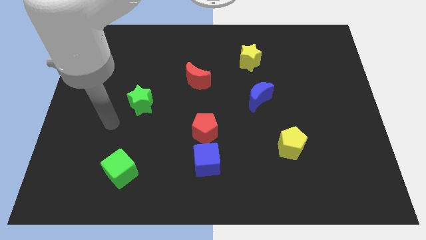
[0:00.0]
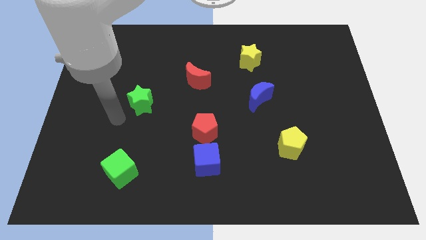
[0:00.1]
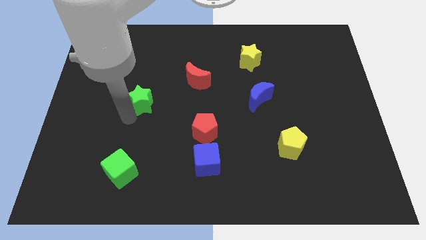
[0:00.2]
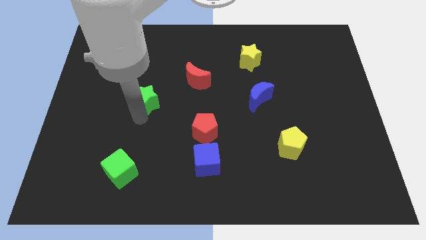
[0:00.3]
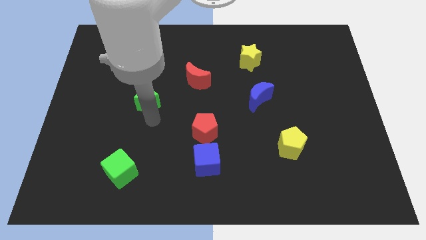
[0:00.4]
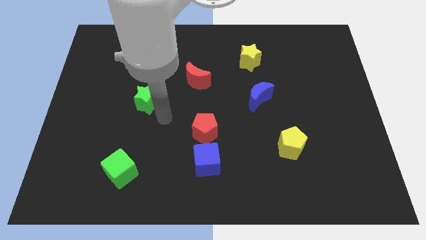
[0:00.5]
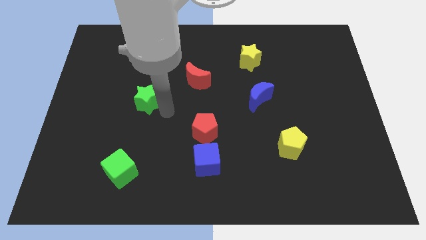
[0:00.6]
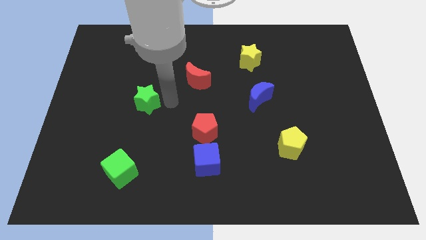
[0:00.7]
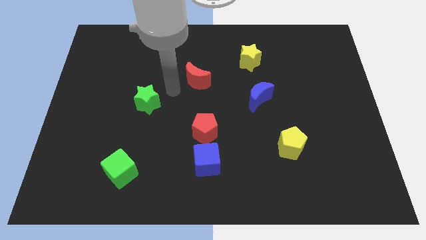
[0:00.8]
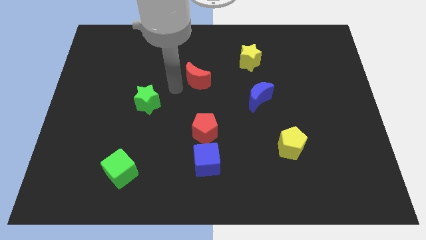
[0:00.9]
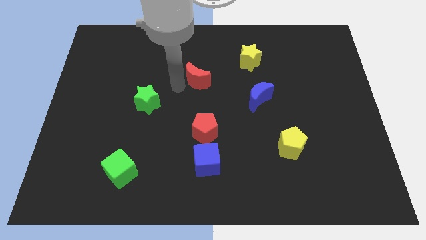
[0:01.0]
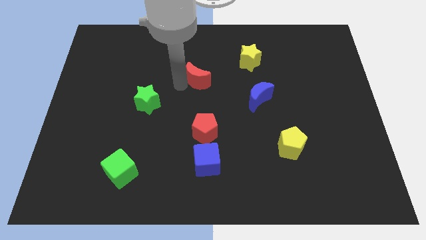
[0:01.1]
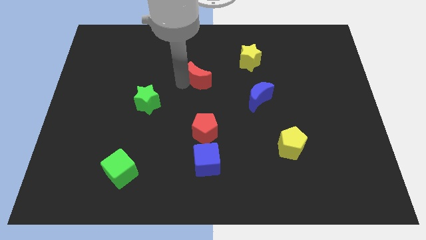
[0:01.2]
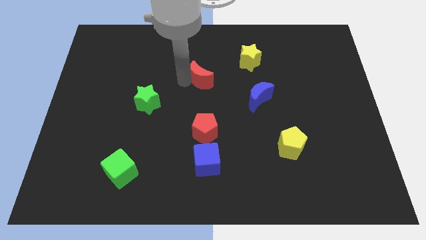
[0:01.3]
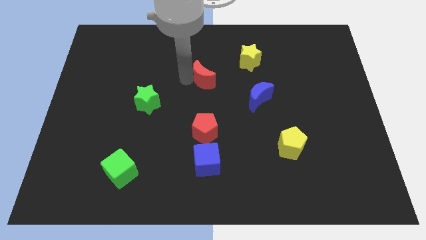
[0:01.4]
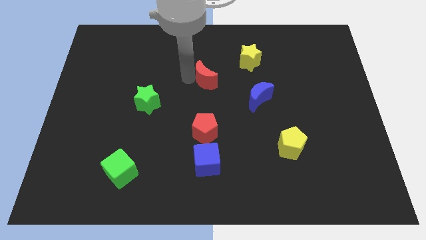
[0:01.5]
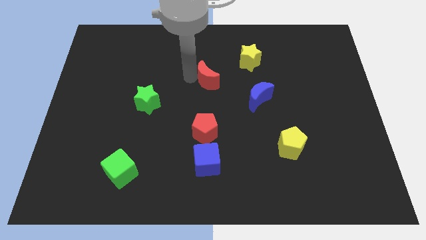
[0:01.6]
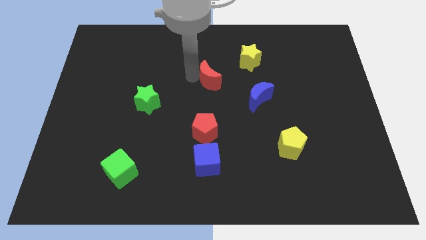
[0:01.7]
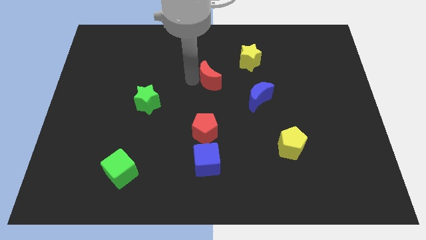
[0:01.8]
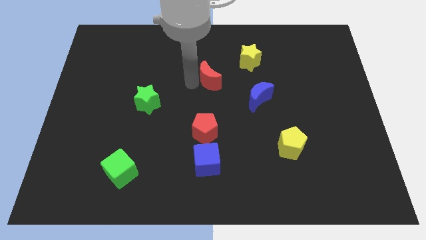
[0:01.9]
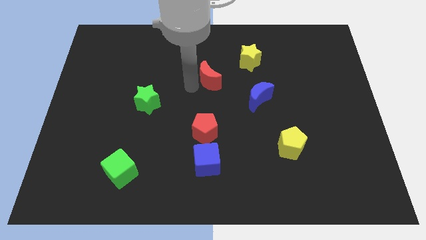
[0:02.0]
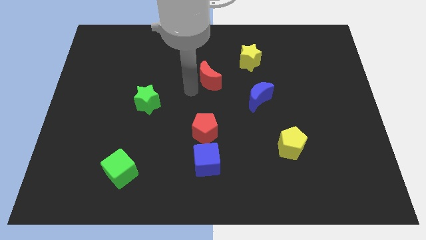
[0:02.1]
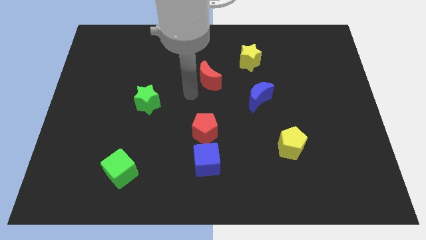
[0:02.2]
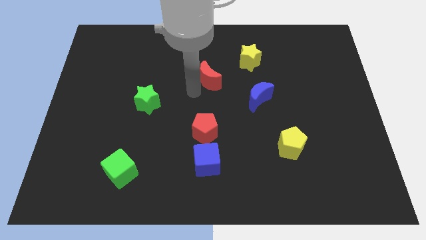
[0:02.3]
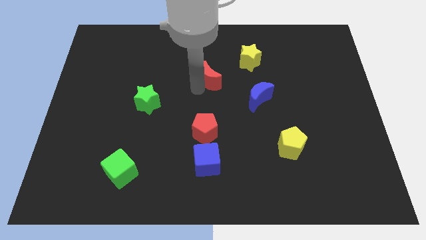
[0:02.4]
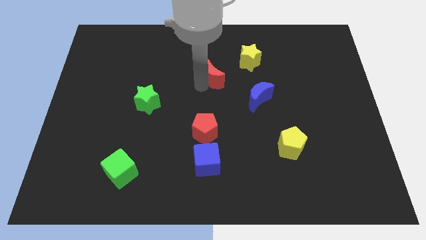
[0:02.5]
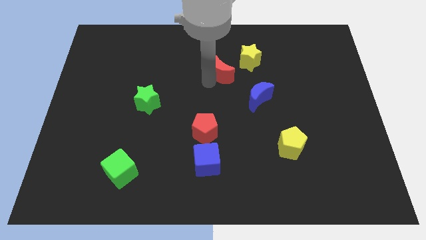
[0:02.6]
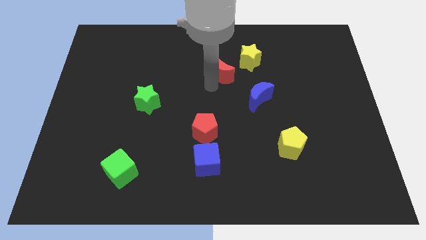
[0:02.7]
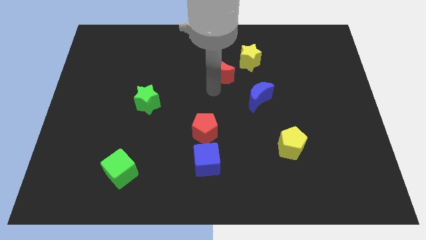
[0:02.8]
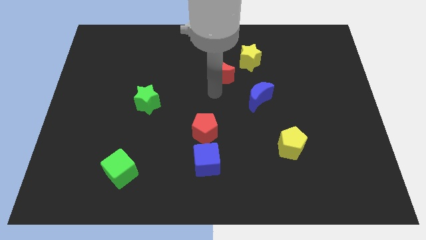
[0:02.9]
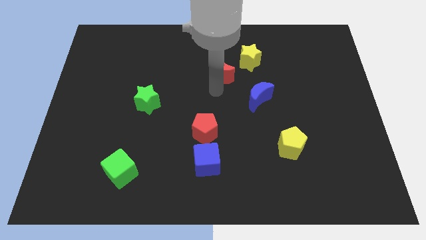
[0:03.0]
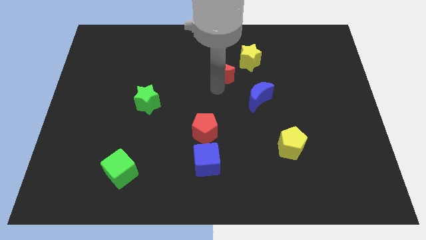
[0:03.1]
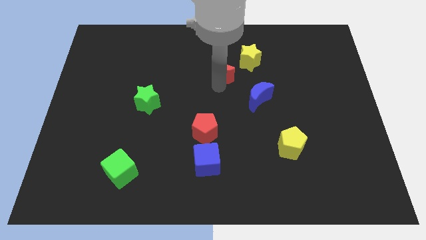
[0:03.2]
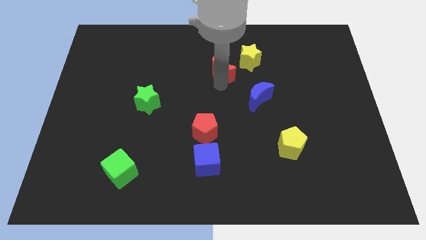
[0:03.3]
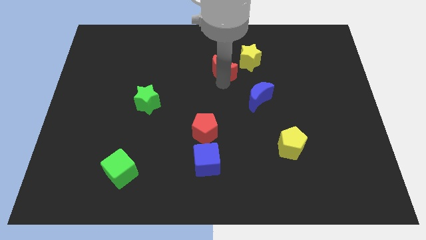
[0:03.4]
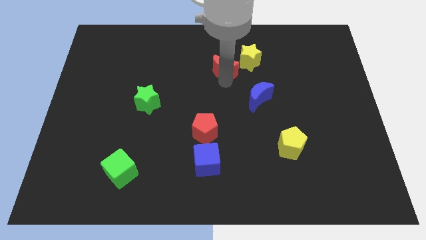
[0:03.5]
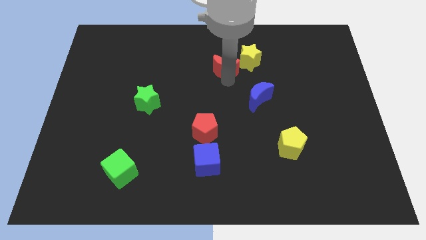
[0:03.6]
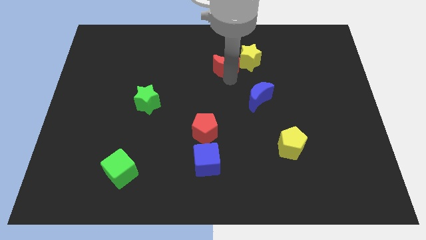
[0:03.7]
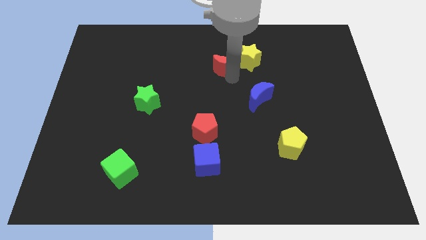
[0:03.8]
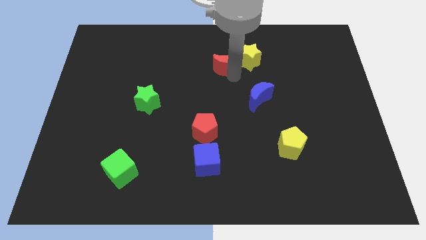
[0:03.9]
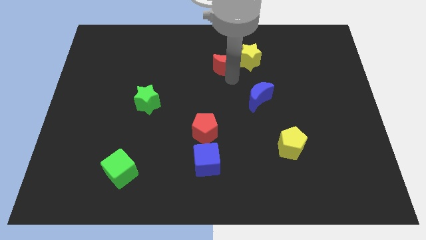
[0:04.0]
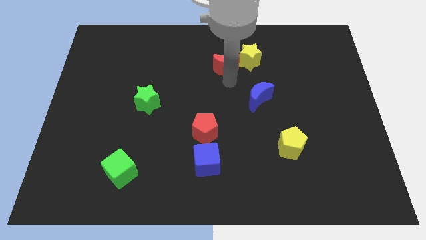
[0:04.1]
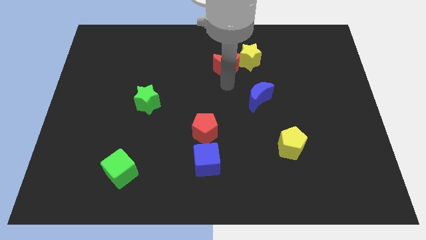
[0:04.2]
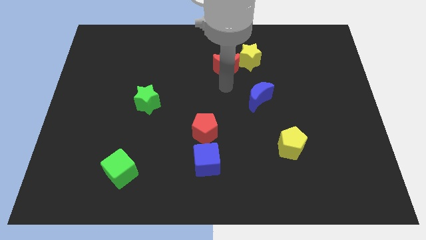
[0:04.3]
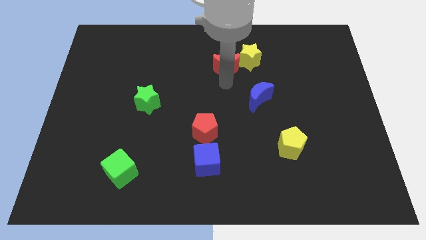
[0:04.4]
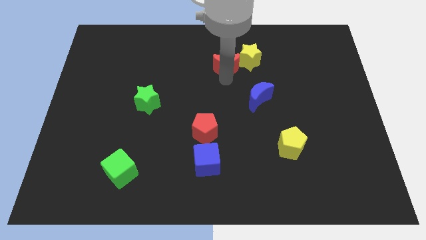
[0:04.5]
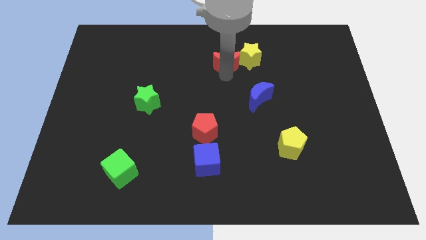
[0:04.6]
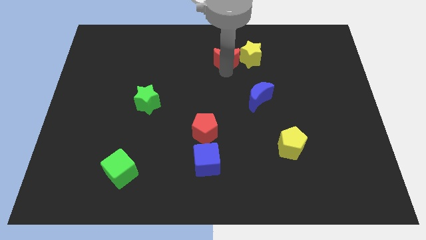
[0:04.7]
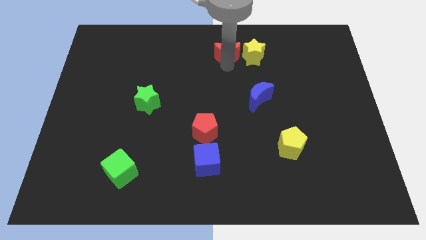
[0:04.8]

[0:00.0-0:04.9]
put the red moon to the top side

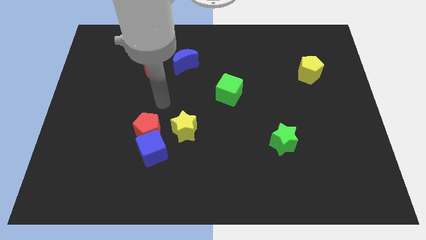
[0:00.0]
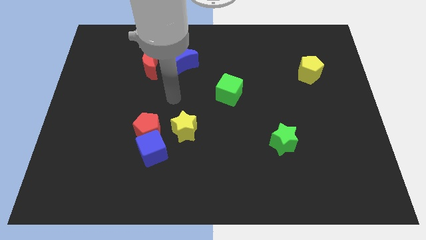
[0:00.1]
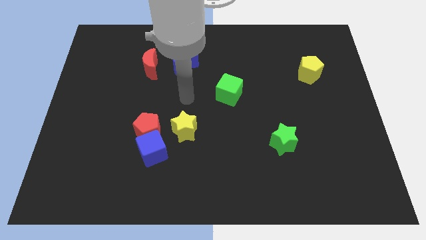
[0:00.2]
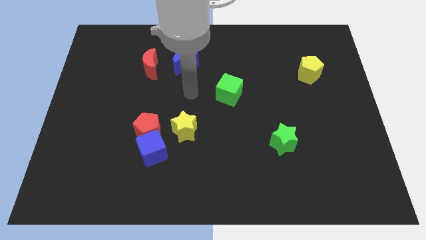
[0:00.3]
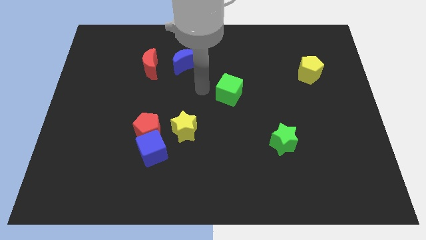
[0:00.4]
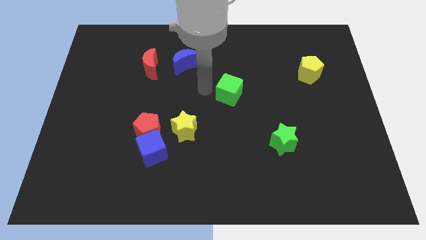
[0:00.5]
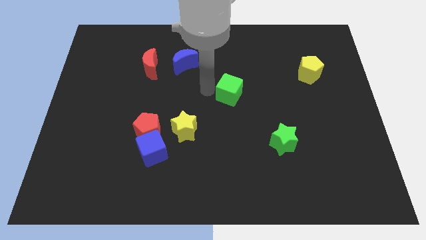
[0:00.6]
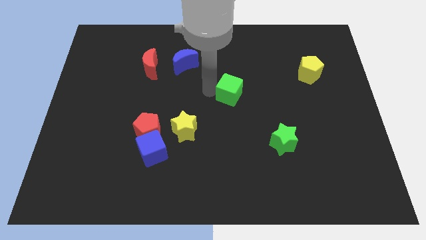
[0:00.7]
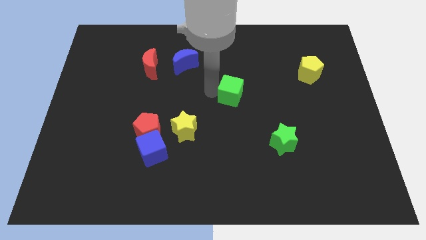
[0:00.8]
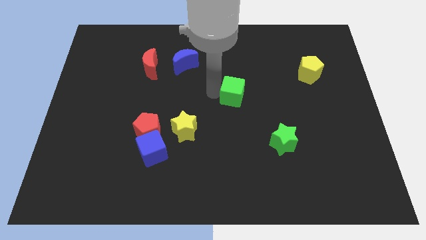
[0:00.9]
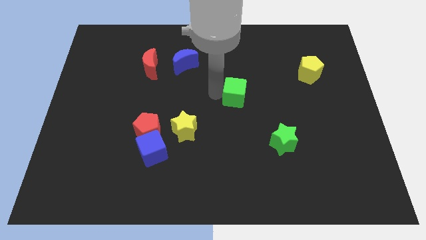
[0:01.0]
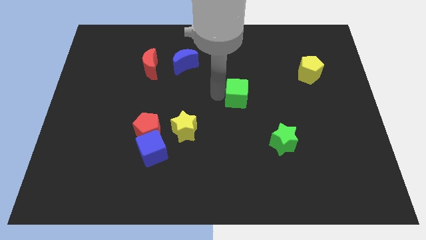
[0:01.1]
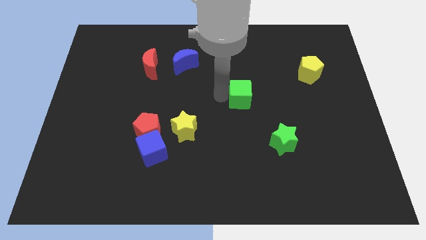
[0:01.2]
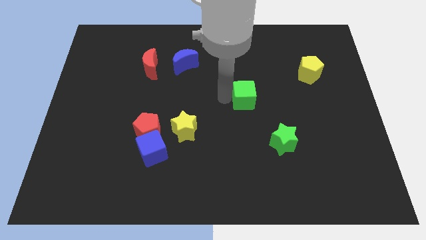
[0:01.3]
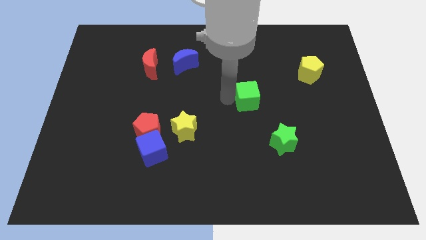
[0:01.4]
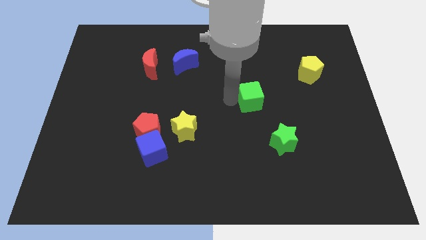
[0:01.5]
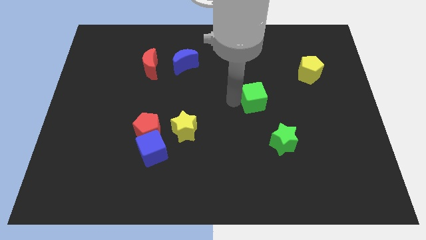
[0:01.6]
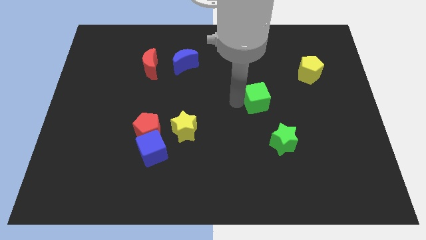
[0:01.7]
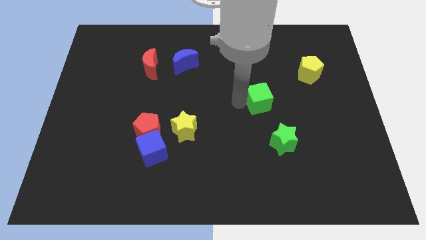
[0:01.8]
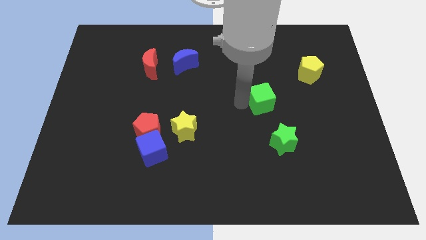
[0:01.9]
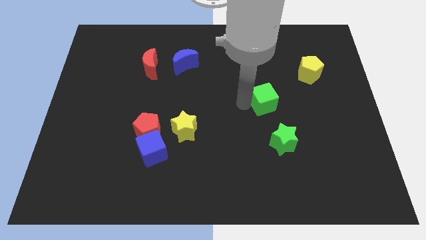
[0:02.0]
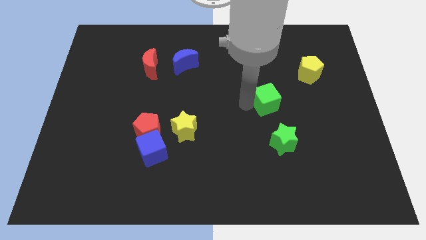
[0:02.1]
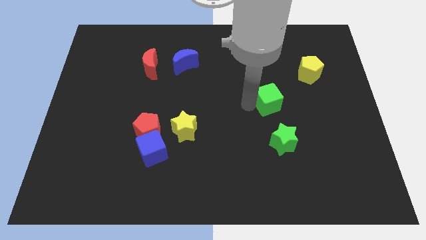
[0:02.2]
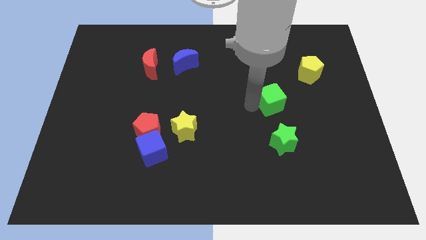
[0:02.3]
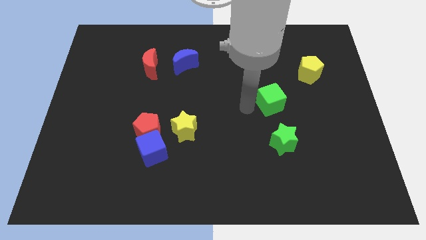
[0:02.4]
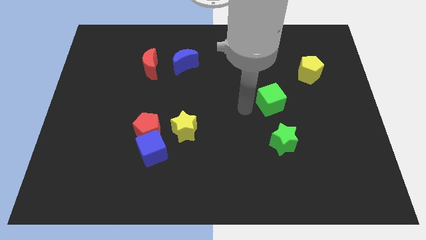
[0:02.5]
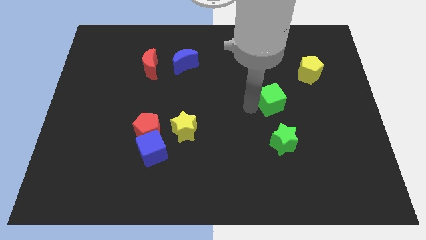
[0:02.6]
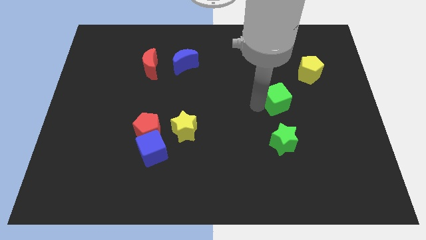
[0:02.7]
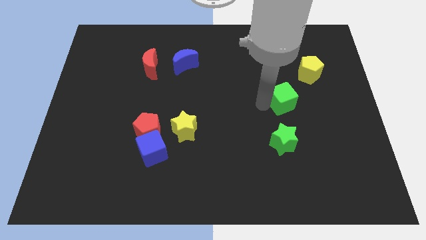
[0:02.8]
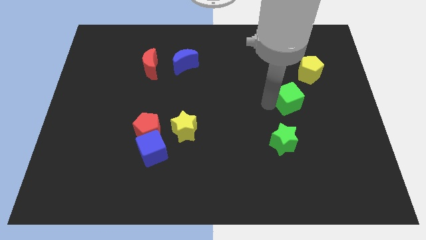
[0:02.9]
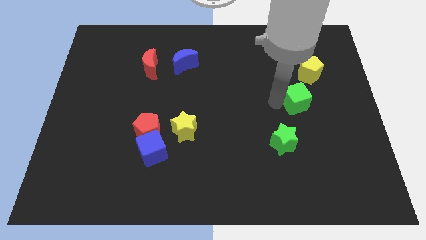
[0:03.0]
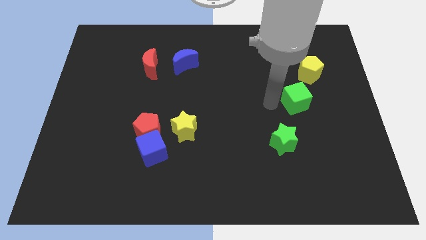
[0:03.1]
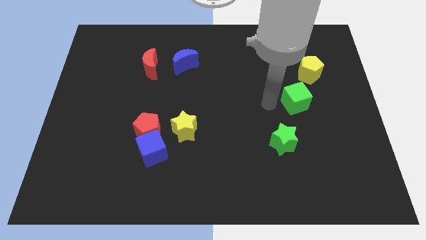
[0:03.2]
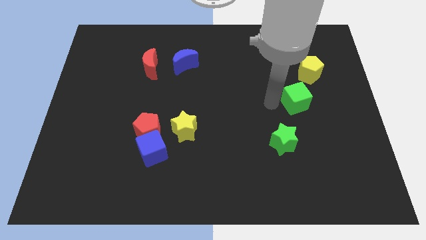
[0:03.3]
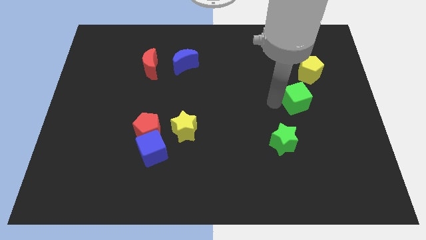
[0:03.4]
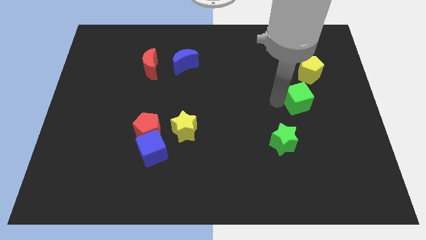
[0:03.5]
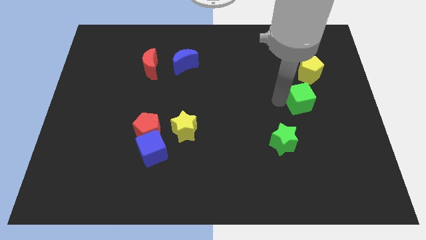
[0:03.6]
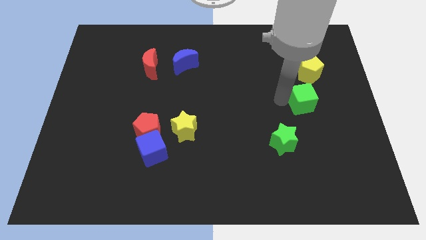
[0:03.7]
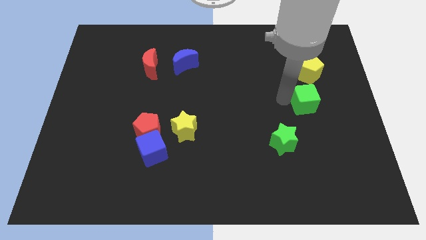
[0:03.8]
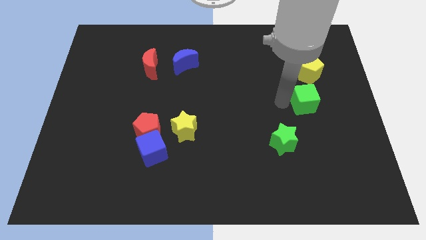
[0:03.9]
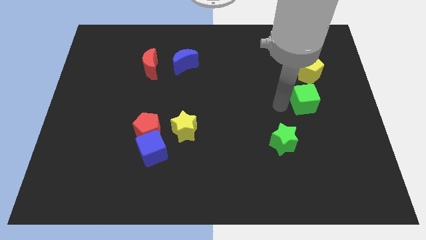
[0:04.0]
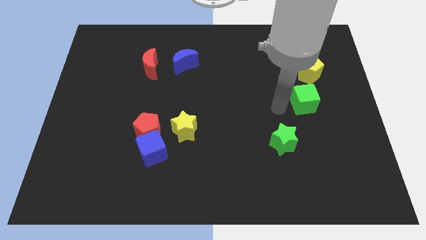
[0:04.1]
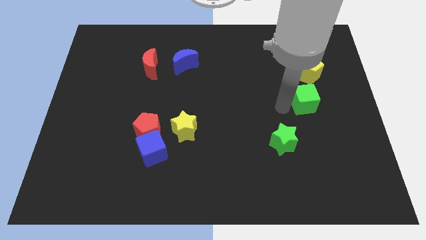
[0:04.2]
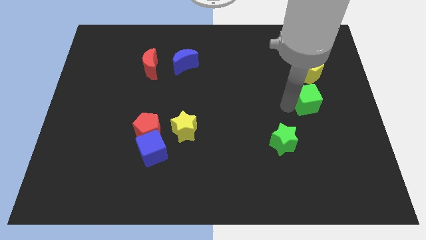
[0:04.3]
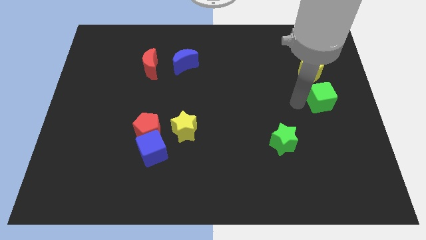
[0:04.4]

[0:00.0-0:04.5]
put the green cube to the right side
